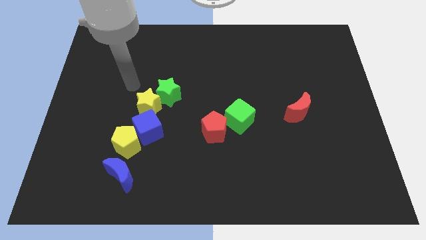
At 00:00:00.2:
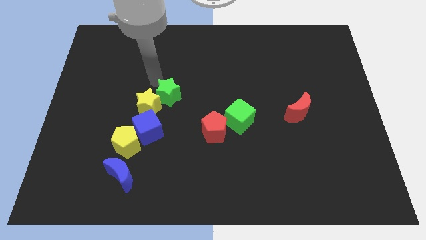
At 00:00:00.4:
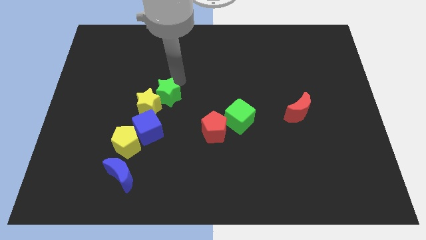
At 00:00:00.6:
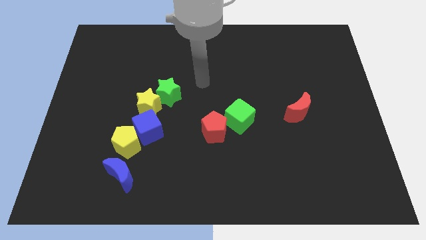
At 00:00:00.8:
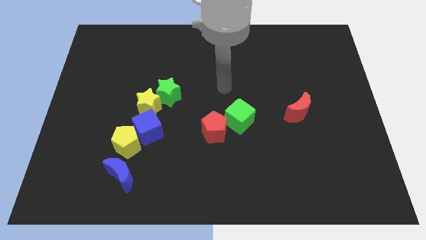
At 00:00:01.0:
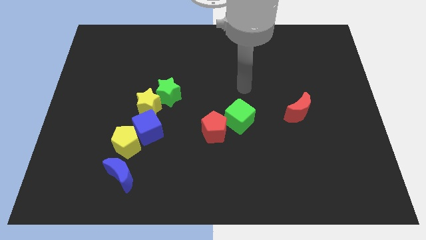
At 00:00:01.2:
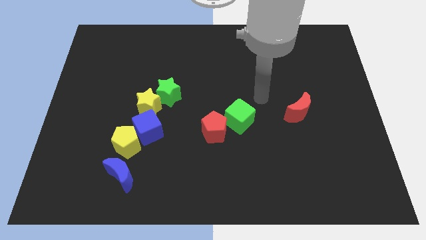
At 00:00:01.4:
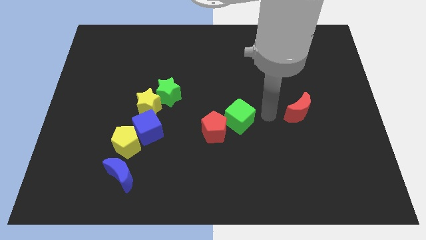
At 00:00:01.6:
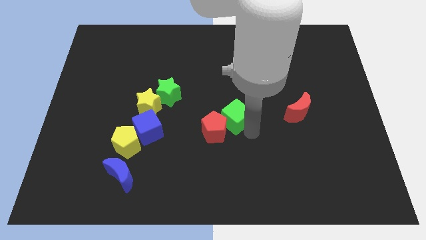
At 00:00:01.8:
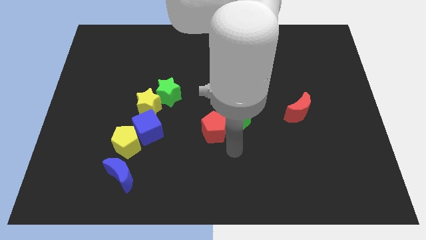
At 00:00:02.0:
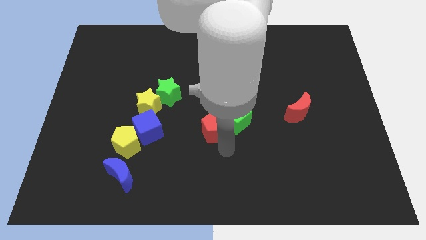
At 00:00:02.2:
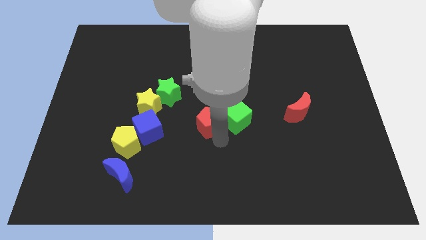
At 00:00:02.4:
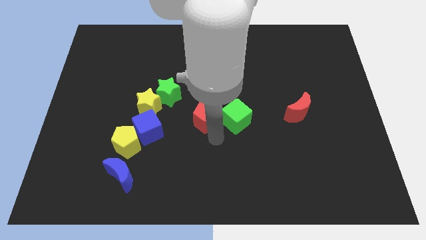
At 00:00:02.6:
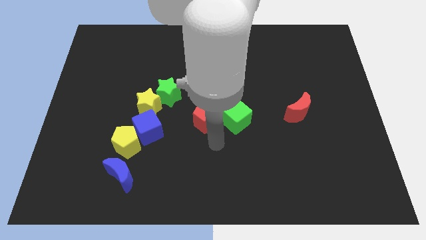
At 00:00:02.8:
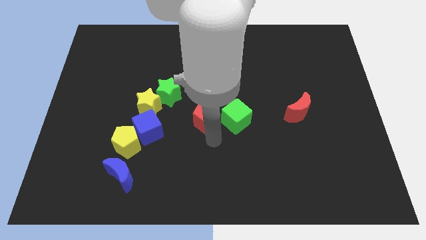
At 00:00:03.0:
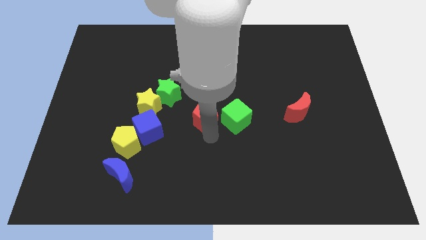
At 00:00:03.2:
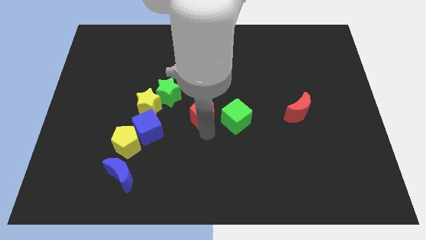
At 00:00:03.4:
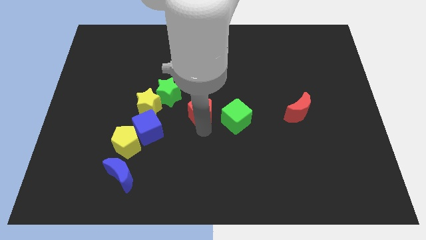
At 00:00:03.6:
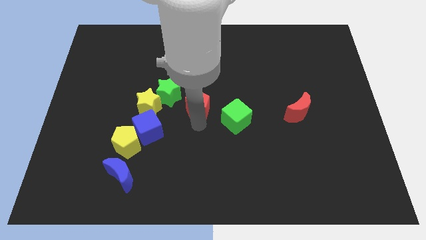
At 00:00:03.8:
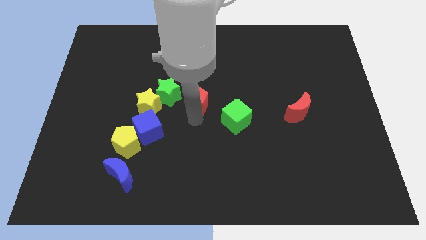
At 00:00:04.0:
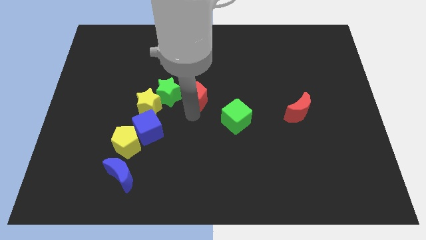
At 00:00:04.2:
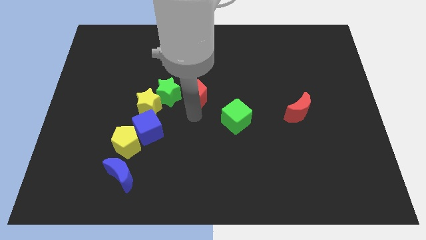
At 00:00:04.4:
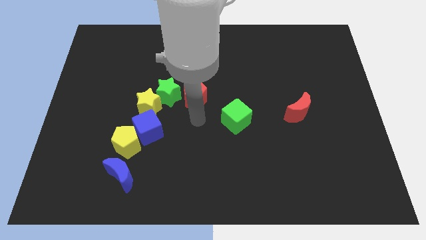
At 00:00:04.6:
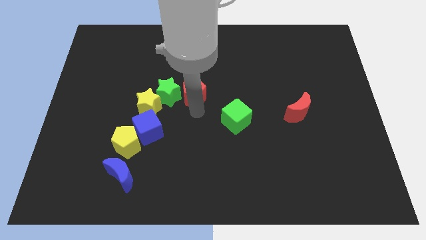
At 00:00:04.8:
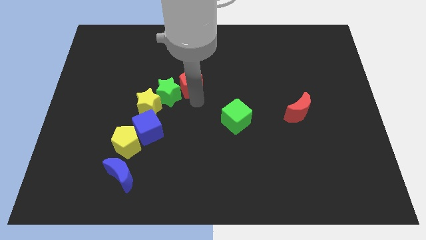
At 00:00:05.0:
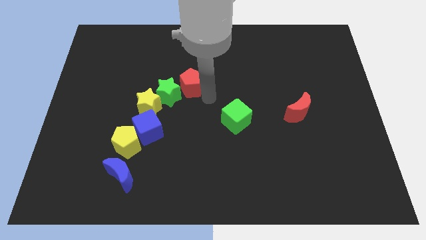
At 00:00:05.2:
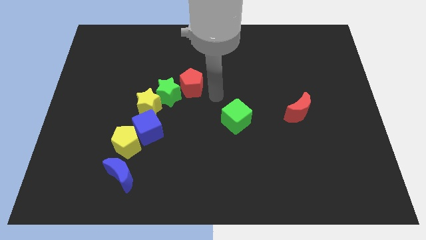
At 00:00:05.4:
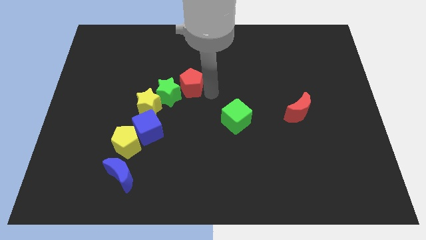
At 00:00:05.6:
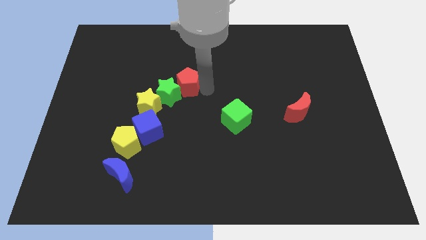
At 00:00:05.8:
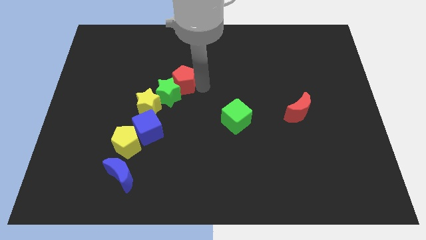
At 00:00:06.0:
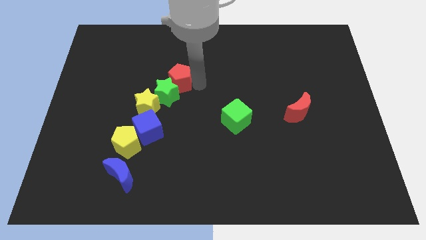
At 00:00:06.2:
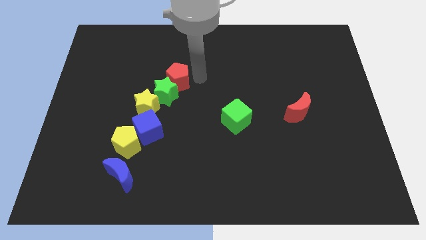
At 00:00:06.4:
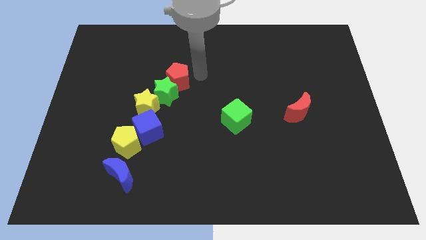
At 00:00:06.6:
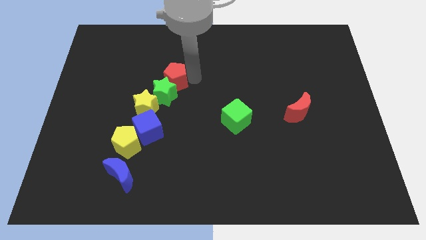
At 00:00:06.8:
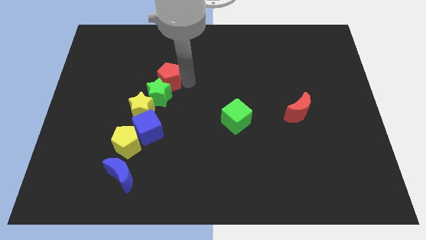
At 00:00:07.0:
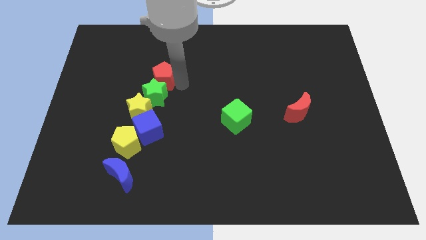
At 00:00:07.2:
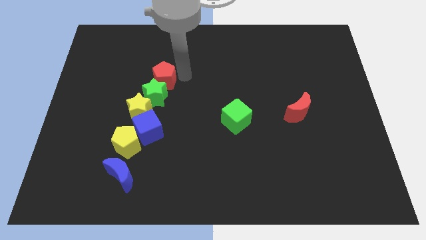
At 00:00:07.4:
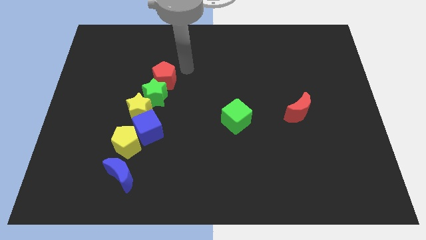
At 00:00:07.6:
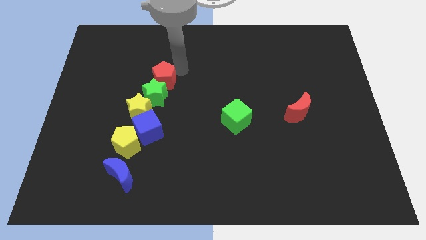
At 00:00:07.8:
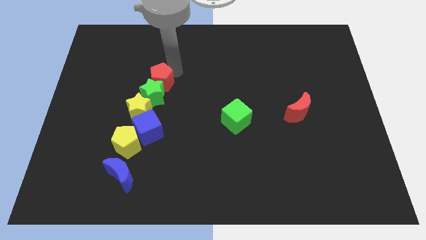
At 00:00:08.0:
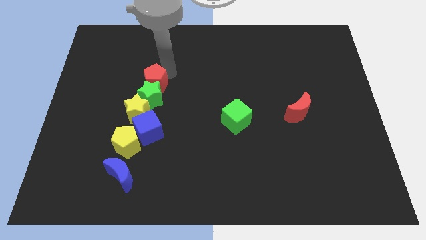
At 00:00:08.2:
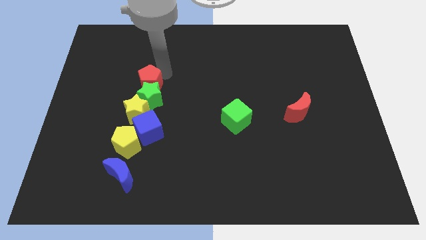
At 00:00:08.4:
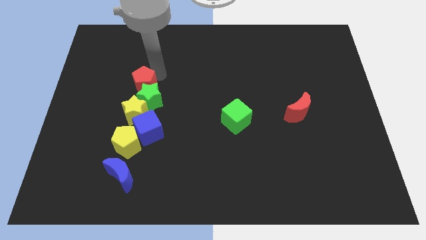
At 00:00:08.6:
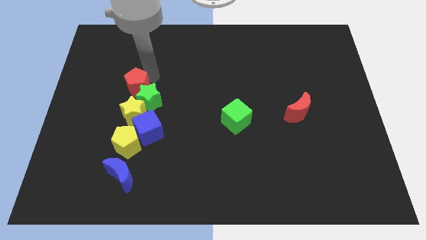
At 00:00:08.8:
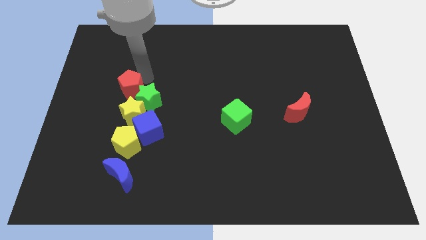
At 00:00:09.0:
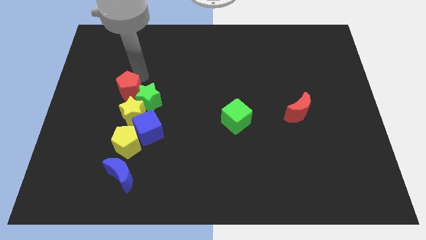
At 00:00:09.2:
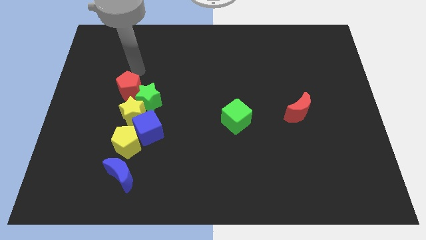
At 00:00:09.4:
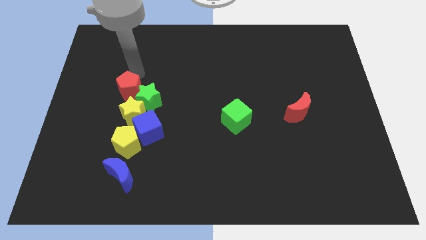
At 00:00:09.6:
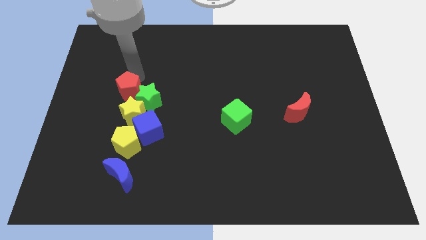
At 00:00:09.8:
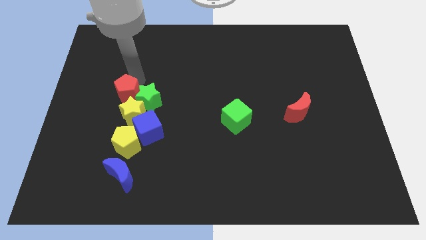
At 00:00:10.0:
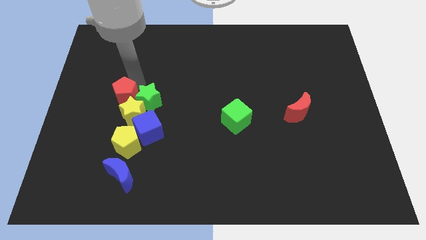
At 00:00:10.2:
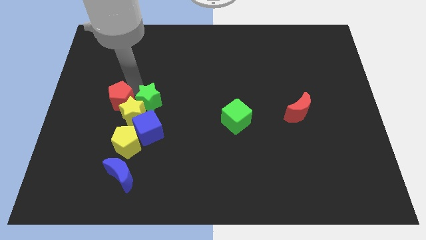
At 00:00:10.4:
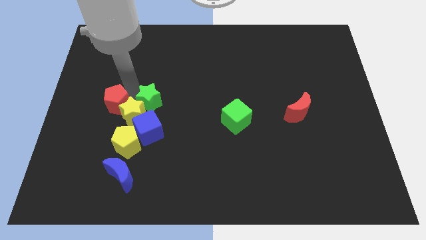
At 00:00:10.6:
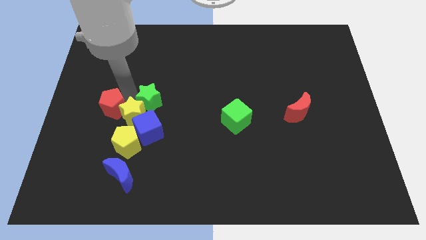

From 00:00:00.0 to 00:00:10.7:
push the red pentagon diagonally up and to the left of the yellow pentagon

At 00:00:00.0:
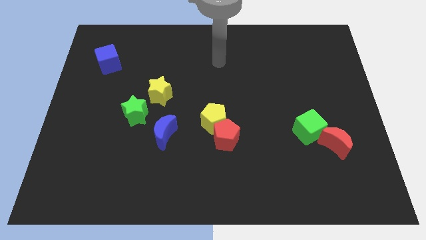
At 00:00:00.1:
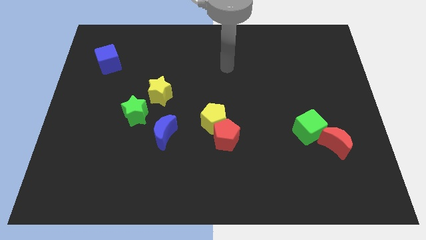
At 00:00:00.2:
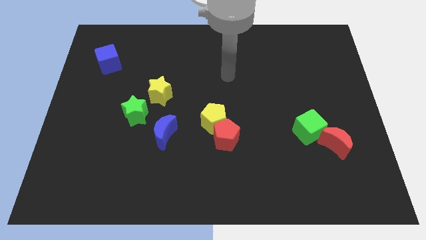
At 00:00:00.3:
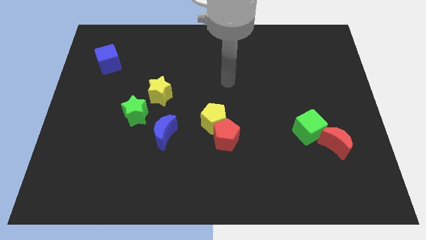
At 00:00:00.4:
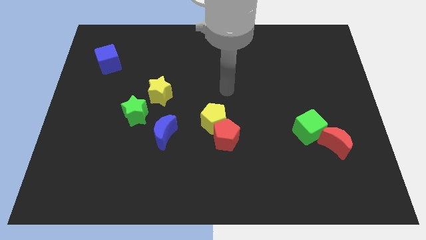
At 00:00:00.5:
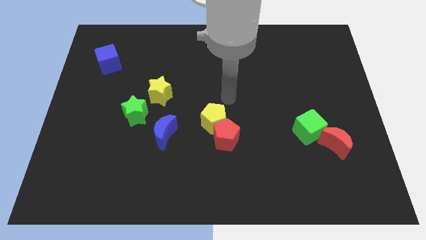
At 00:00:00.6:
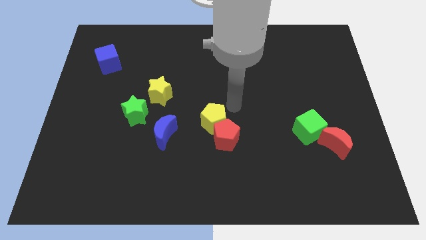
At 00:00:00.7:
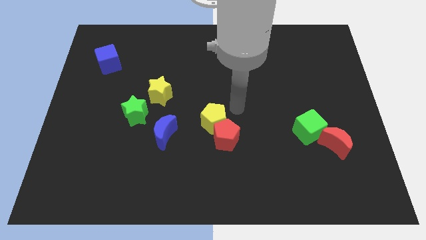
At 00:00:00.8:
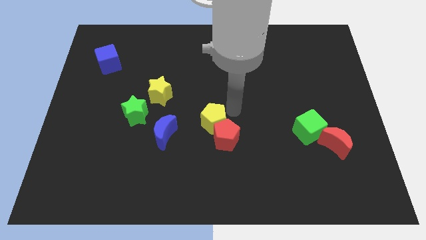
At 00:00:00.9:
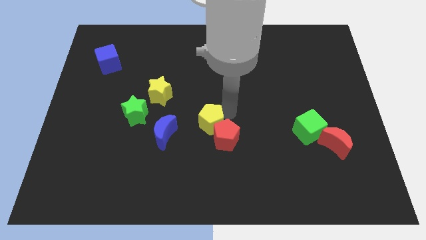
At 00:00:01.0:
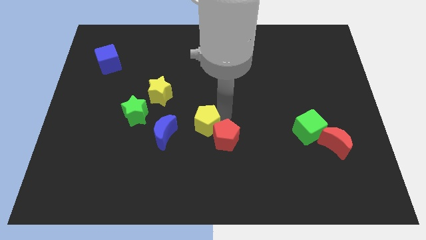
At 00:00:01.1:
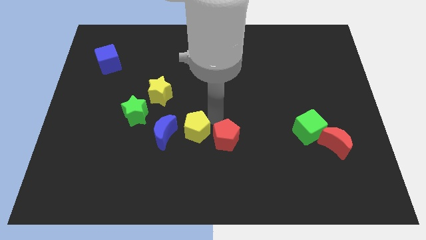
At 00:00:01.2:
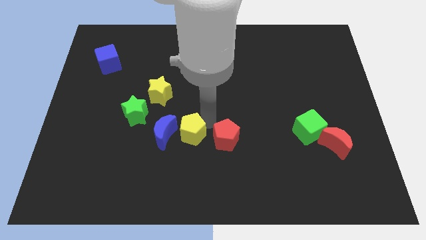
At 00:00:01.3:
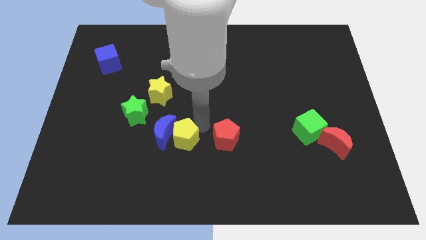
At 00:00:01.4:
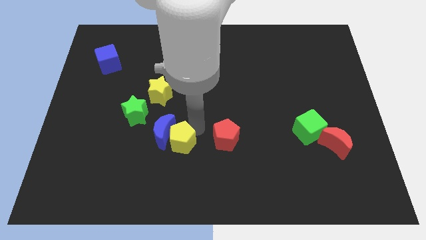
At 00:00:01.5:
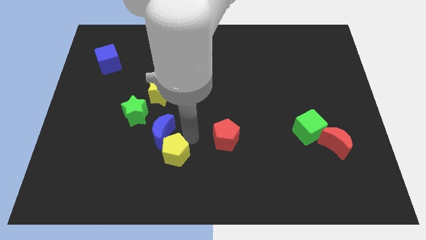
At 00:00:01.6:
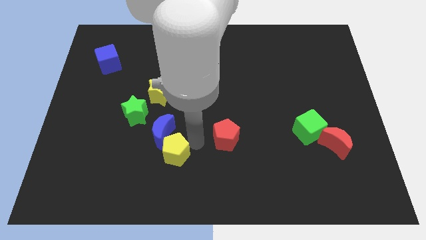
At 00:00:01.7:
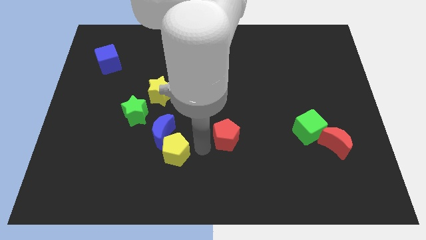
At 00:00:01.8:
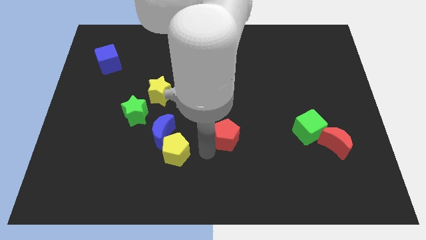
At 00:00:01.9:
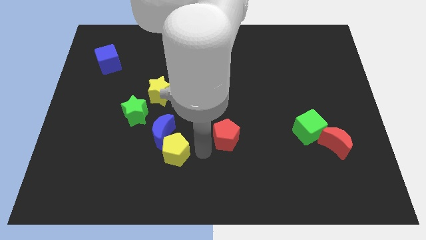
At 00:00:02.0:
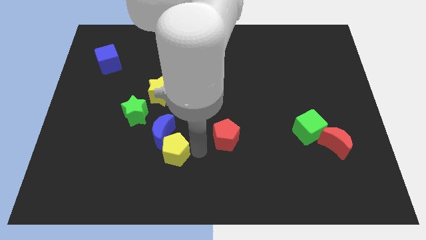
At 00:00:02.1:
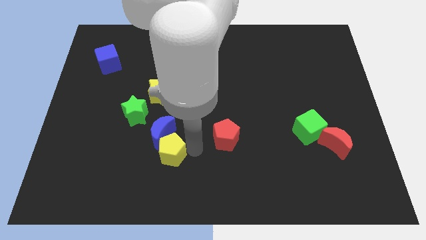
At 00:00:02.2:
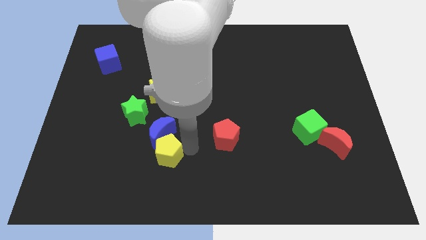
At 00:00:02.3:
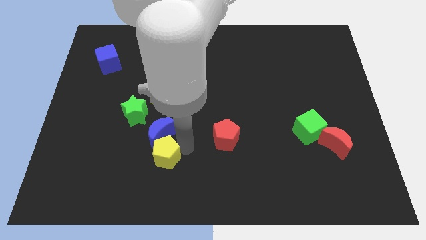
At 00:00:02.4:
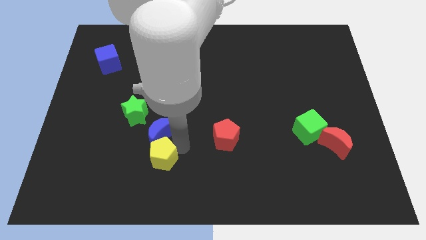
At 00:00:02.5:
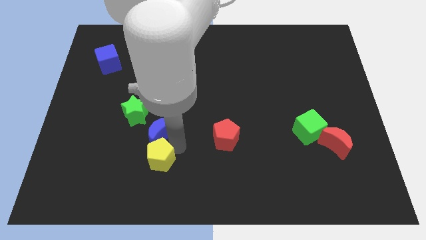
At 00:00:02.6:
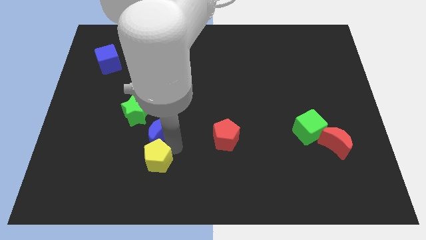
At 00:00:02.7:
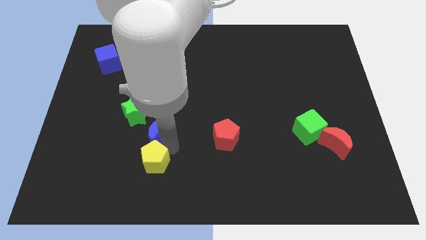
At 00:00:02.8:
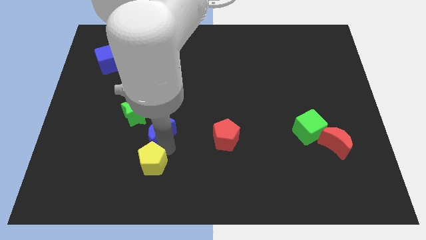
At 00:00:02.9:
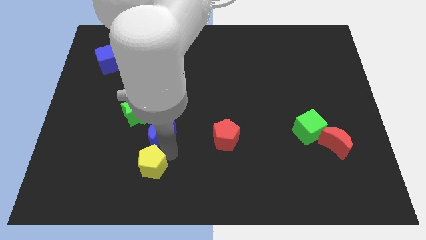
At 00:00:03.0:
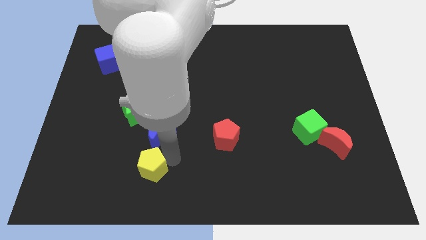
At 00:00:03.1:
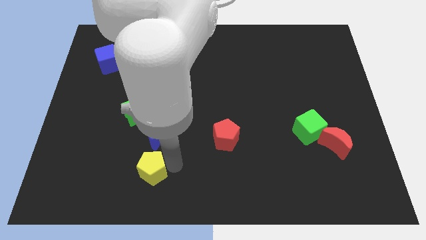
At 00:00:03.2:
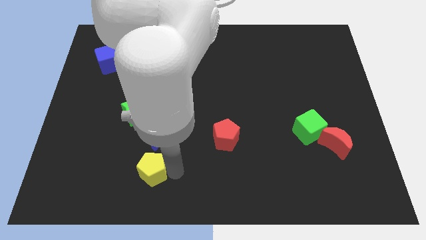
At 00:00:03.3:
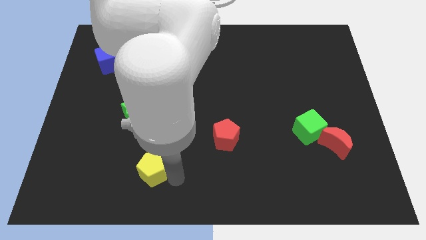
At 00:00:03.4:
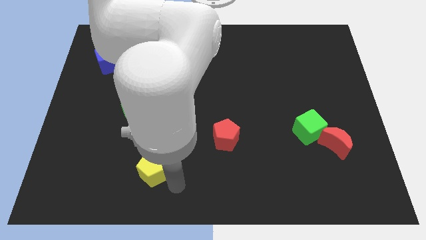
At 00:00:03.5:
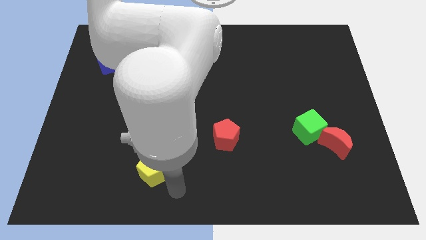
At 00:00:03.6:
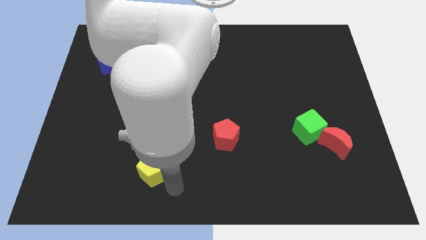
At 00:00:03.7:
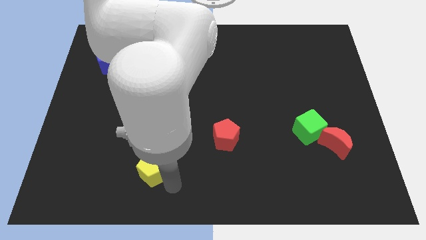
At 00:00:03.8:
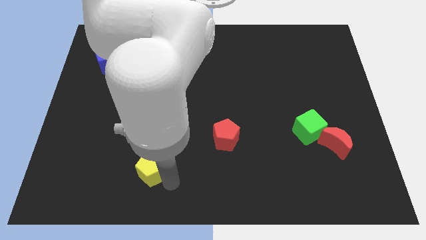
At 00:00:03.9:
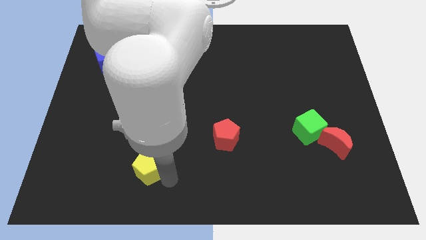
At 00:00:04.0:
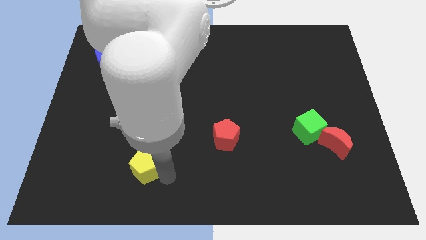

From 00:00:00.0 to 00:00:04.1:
push the yellow pentagon to the bottom side of the green star
